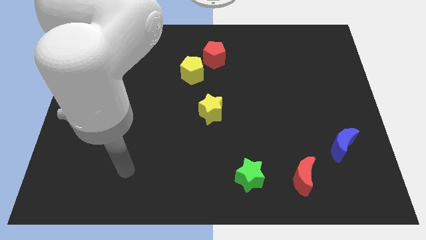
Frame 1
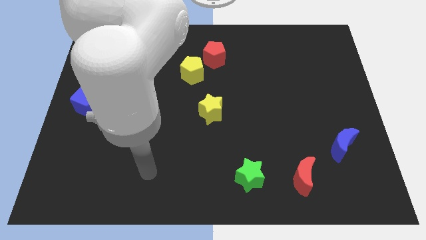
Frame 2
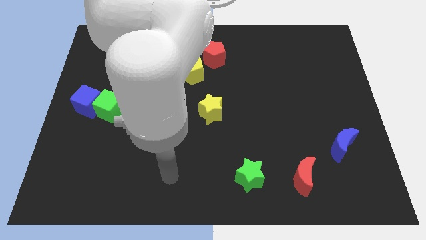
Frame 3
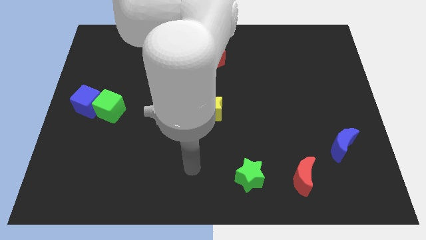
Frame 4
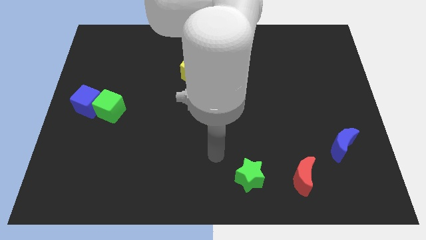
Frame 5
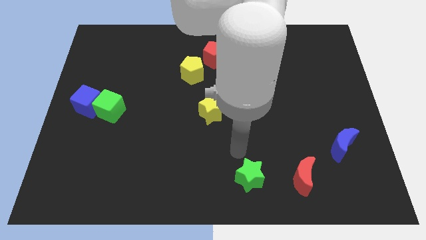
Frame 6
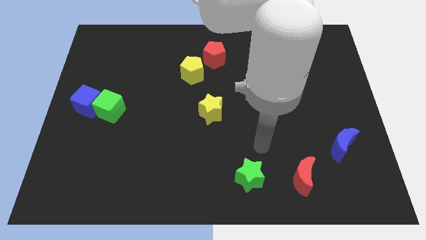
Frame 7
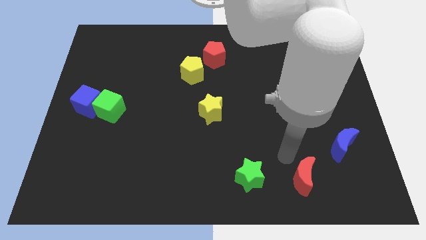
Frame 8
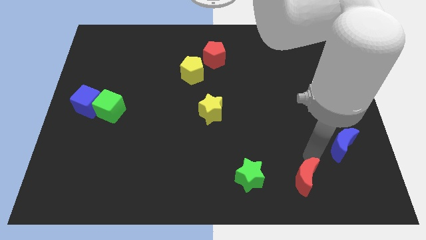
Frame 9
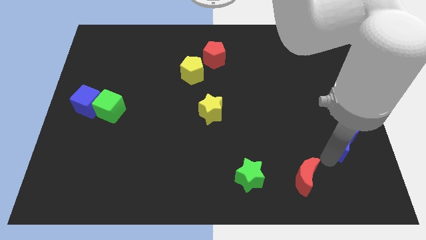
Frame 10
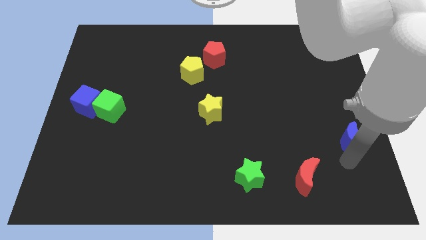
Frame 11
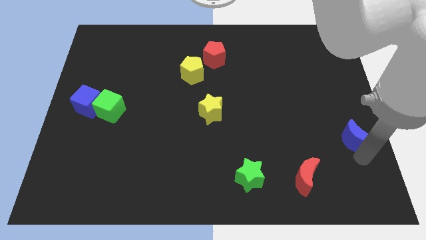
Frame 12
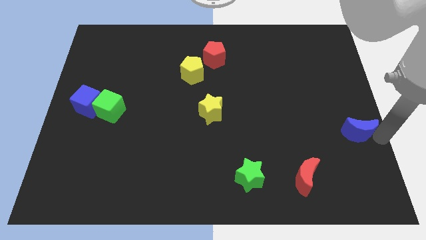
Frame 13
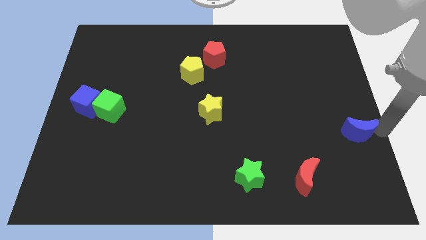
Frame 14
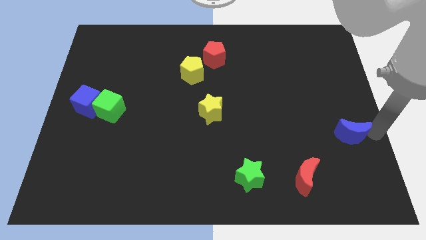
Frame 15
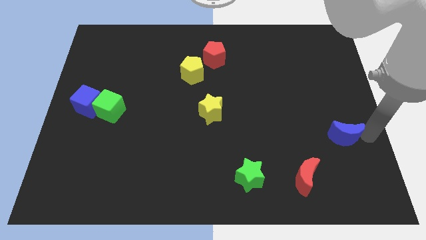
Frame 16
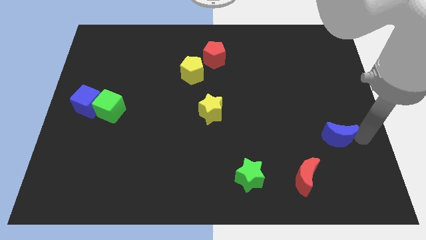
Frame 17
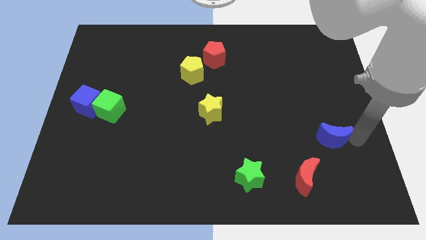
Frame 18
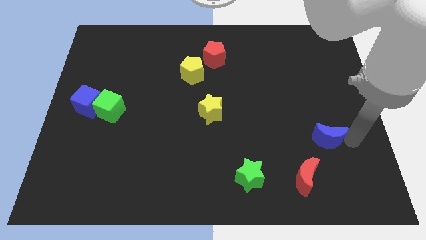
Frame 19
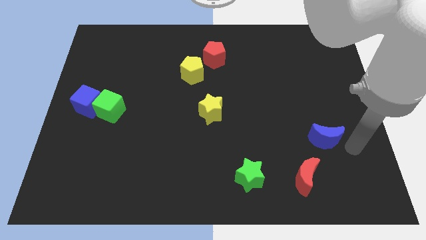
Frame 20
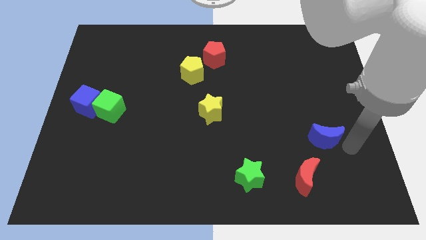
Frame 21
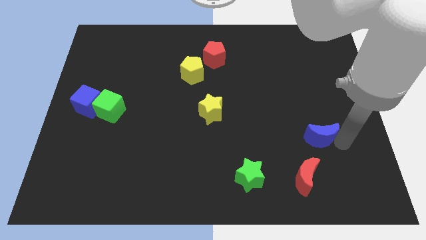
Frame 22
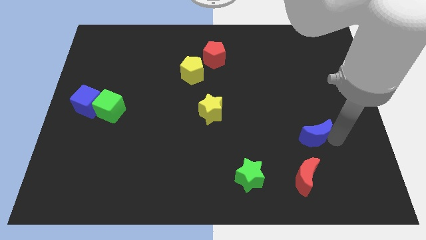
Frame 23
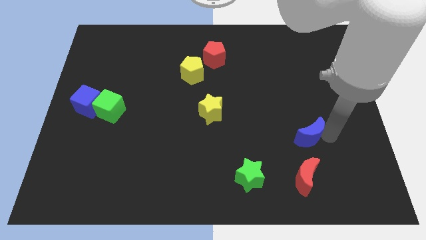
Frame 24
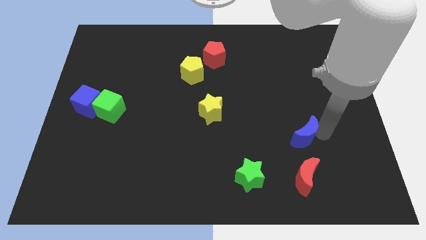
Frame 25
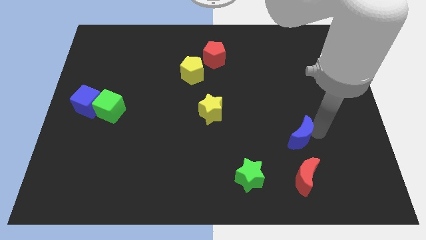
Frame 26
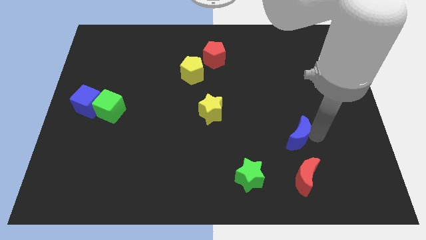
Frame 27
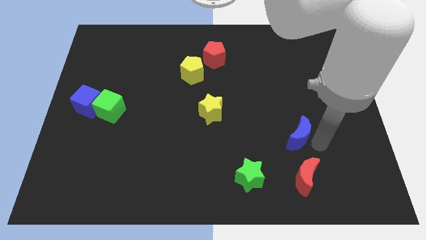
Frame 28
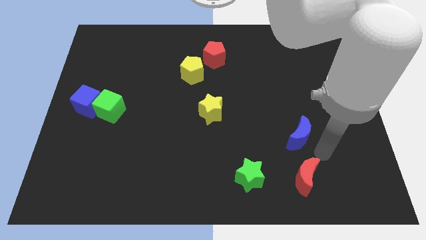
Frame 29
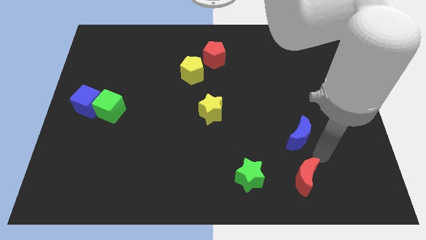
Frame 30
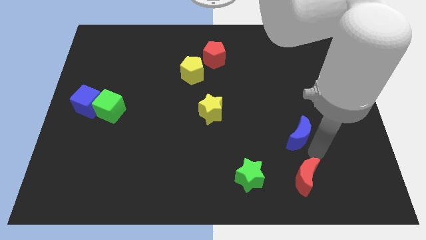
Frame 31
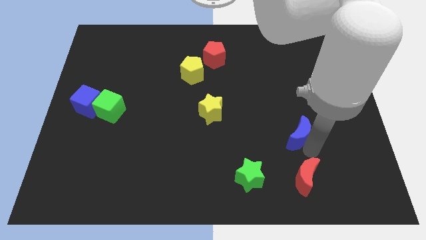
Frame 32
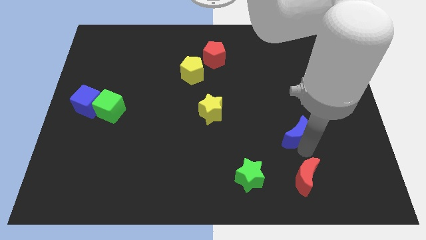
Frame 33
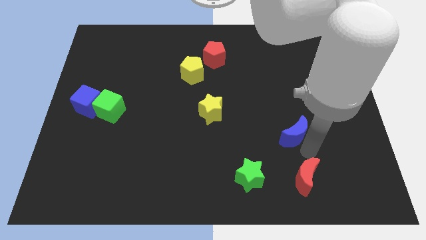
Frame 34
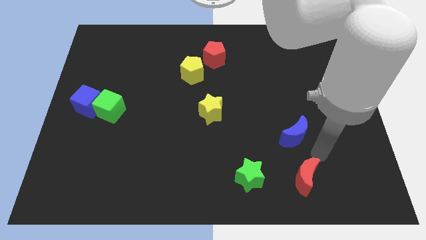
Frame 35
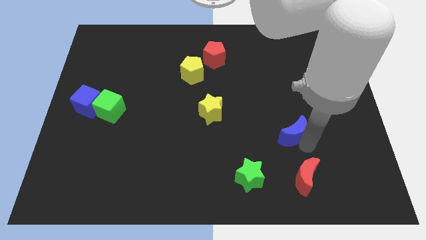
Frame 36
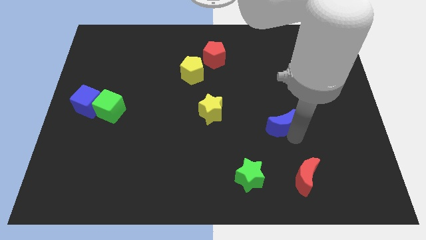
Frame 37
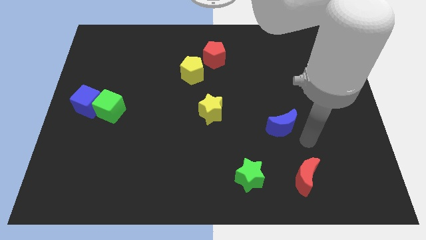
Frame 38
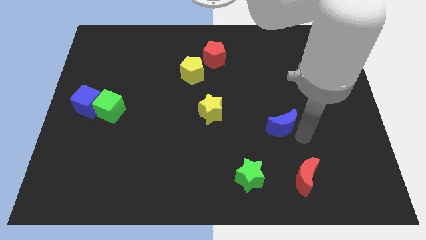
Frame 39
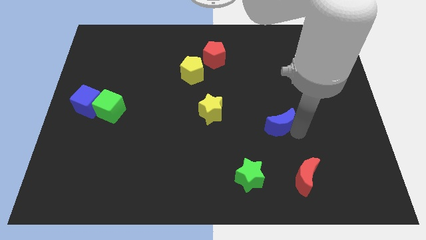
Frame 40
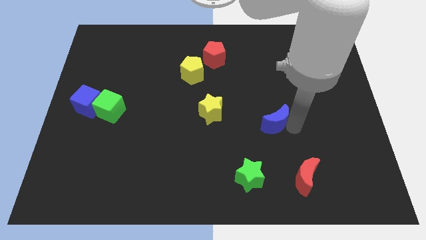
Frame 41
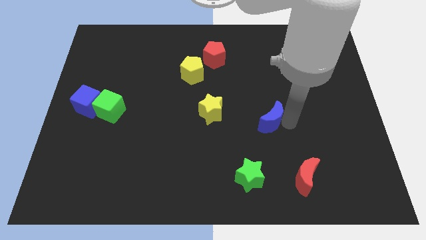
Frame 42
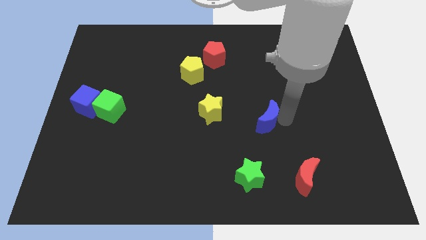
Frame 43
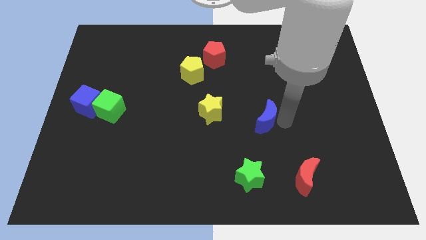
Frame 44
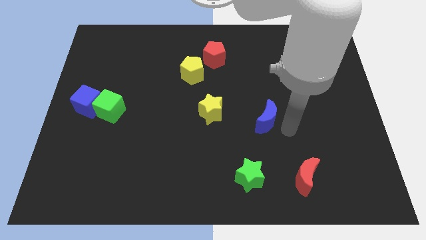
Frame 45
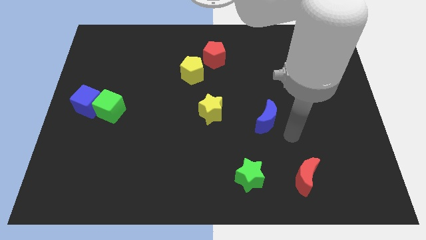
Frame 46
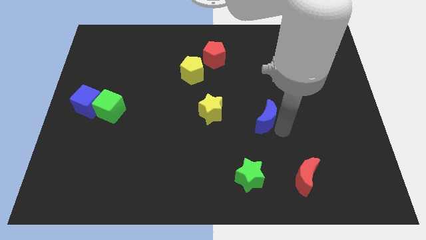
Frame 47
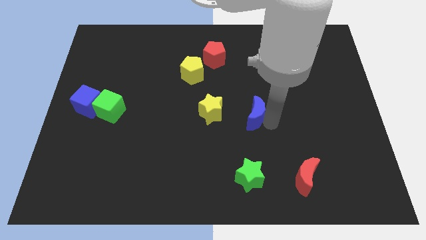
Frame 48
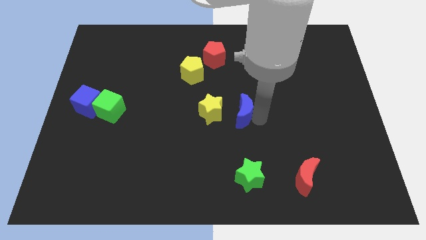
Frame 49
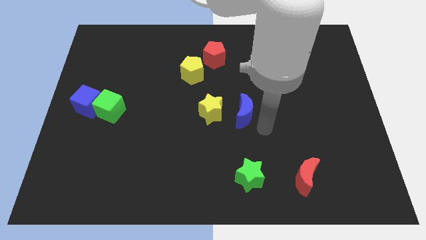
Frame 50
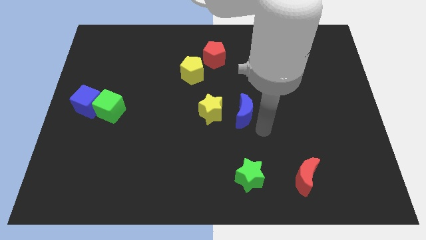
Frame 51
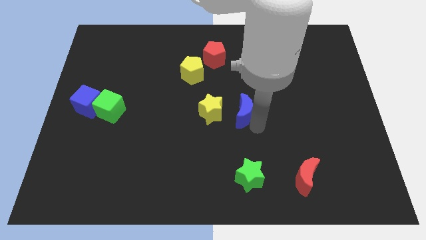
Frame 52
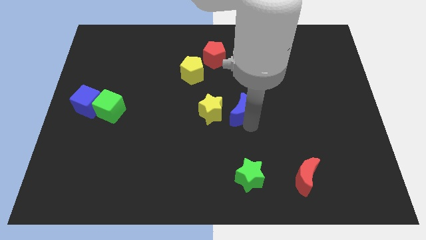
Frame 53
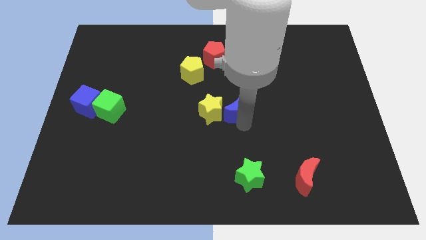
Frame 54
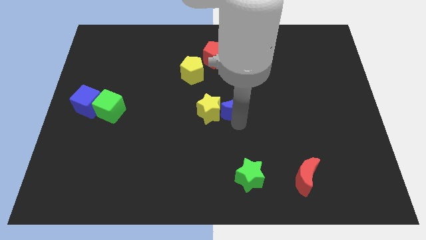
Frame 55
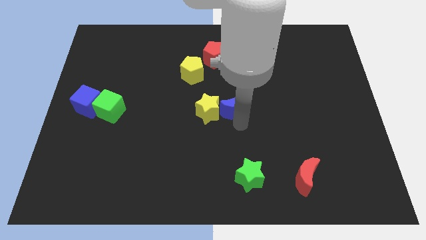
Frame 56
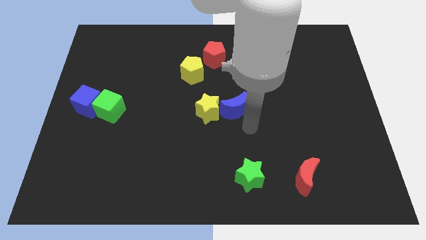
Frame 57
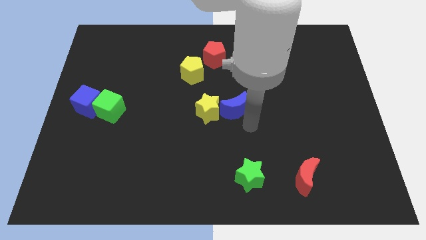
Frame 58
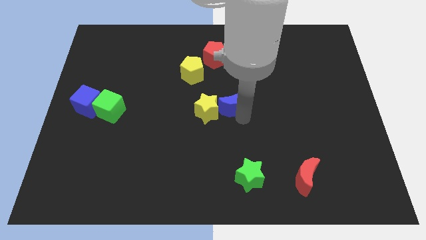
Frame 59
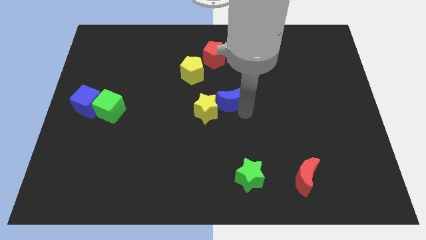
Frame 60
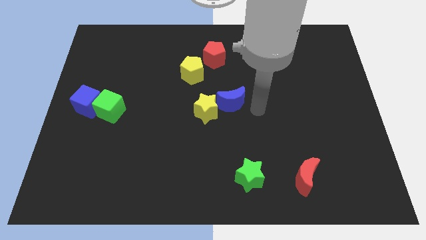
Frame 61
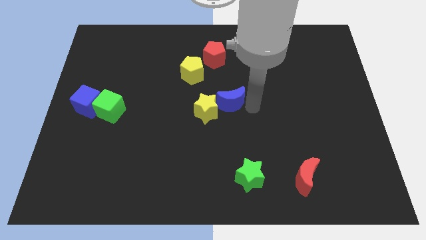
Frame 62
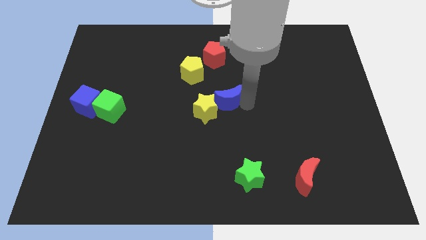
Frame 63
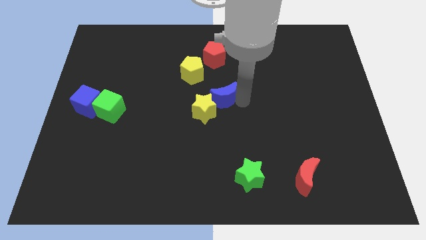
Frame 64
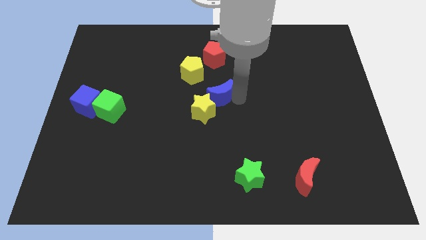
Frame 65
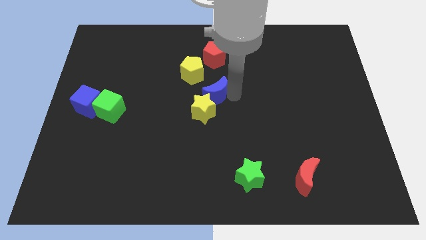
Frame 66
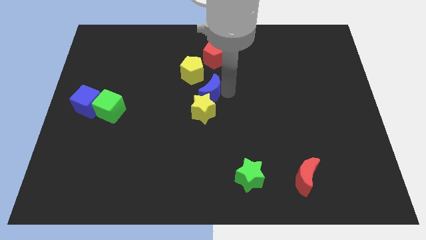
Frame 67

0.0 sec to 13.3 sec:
push the blue moon to the top left of the yellow star

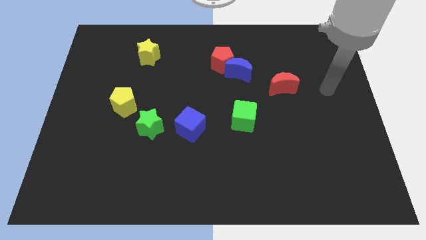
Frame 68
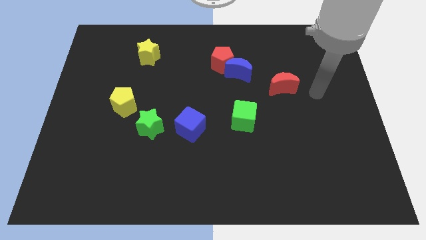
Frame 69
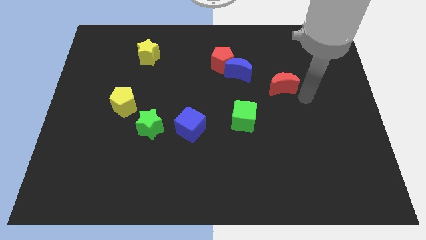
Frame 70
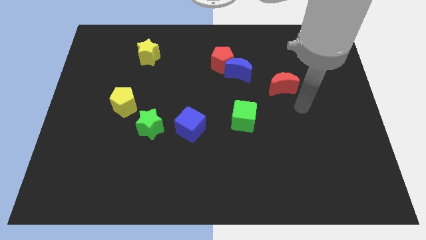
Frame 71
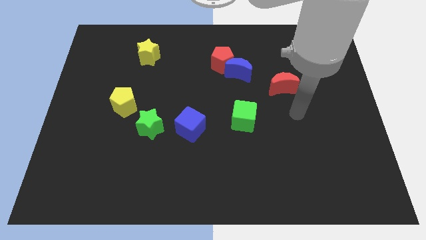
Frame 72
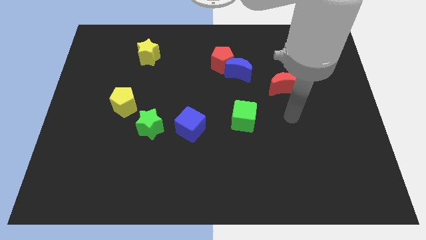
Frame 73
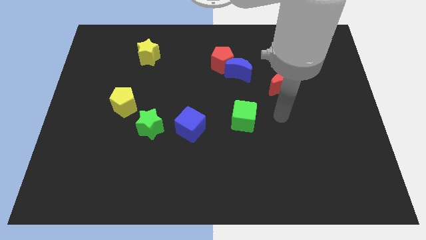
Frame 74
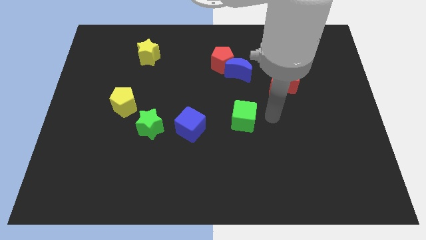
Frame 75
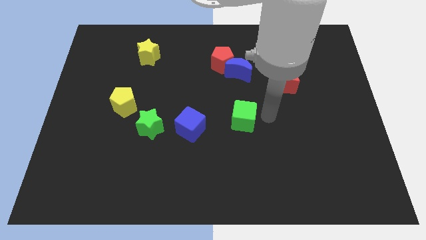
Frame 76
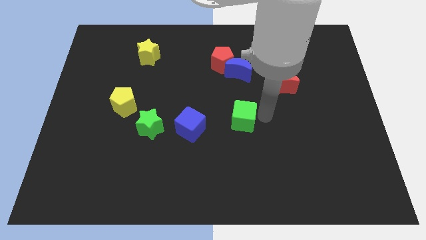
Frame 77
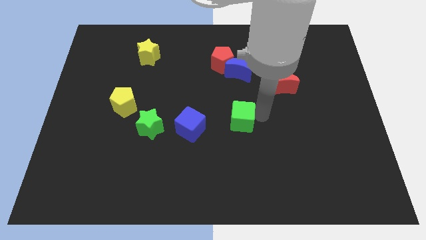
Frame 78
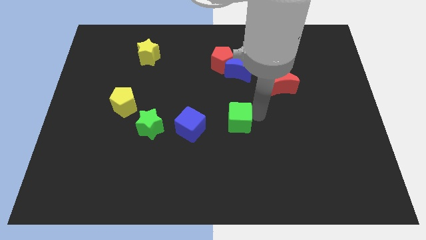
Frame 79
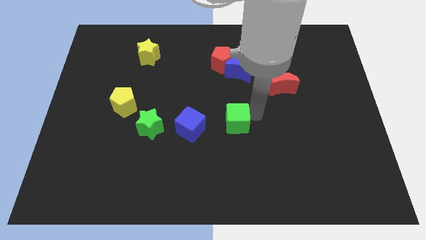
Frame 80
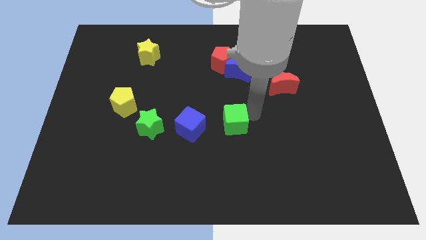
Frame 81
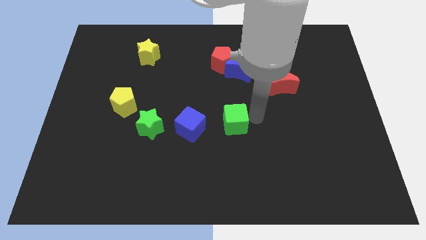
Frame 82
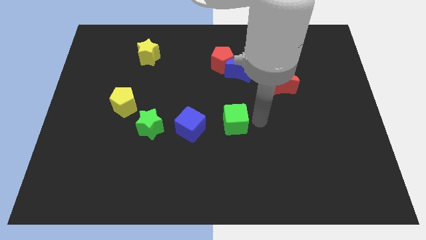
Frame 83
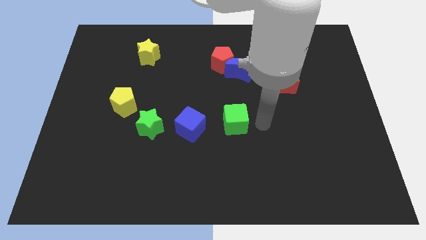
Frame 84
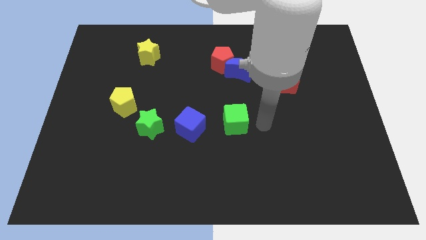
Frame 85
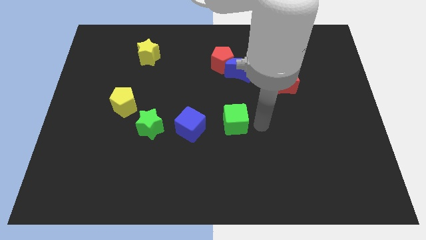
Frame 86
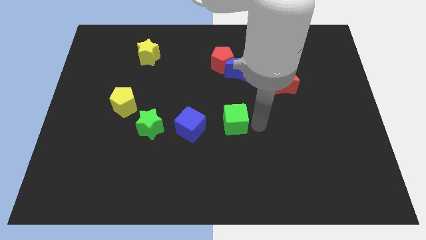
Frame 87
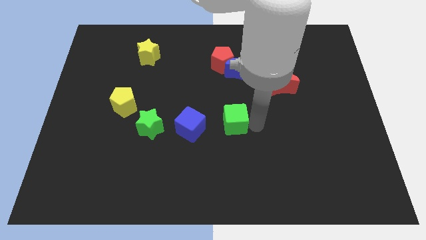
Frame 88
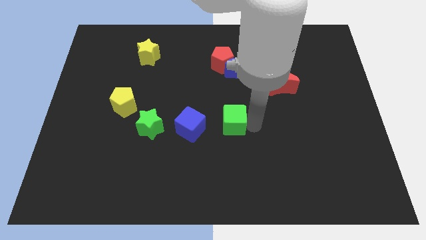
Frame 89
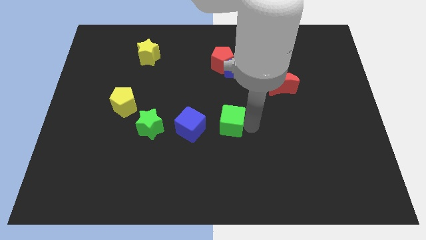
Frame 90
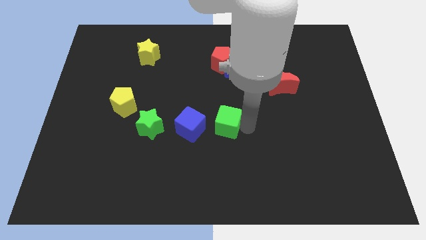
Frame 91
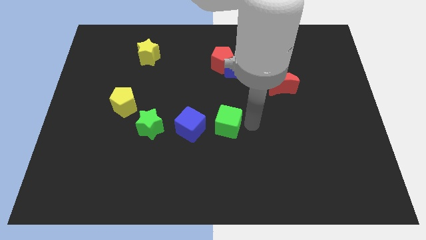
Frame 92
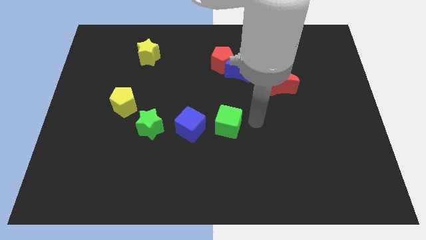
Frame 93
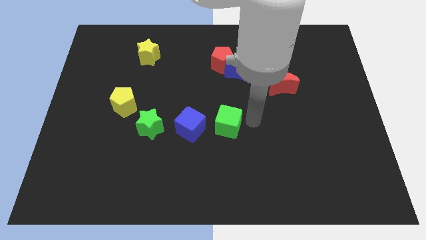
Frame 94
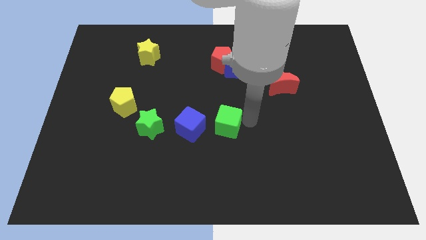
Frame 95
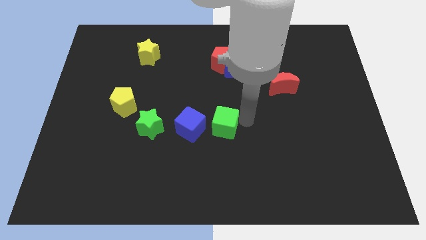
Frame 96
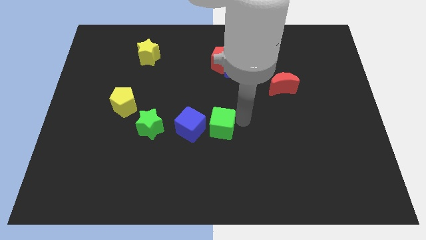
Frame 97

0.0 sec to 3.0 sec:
slide the green cube to the right of the green star
